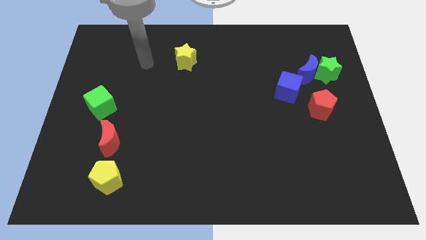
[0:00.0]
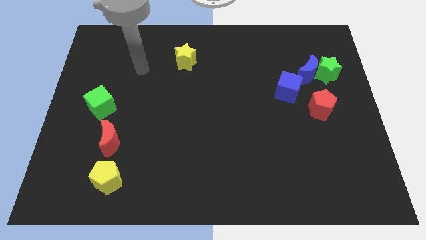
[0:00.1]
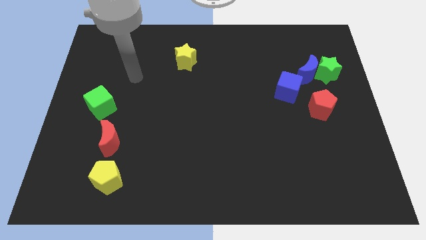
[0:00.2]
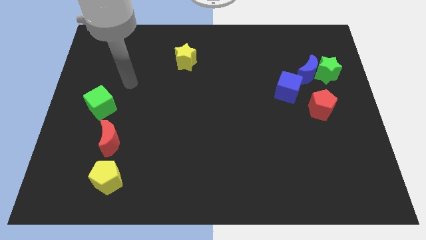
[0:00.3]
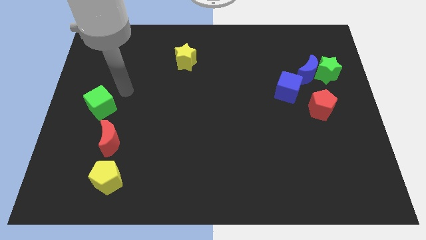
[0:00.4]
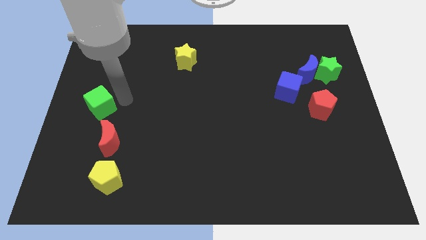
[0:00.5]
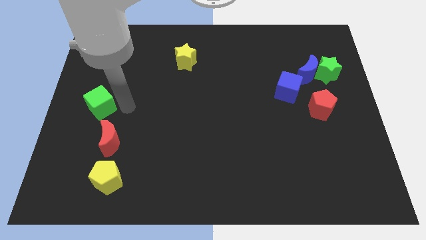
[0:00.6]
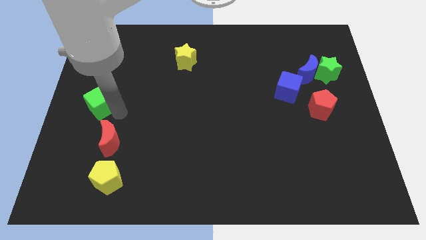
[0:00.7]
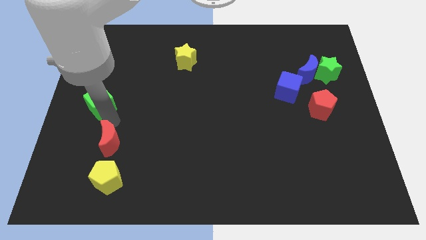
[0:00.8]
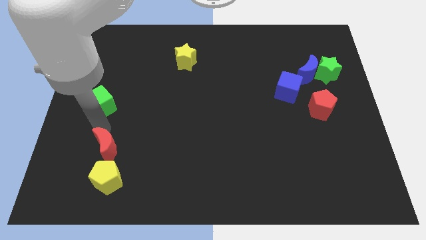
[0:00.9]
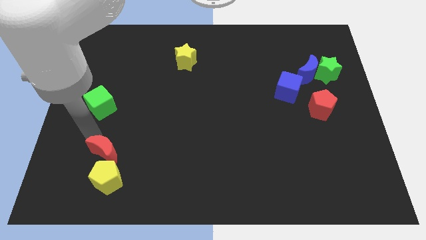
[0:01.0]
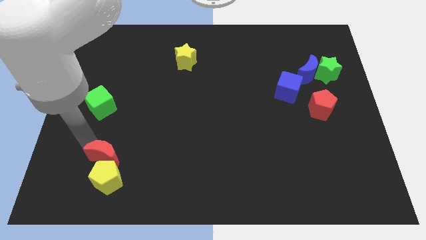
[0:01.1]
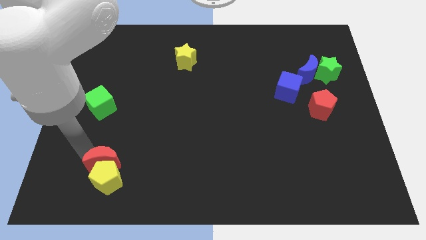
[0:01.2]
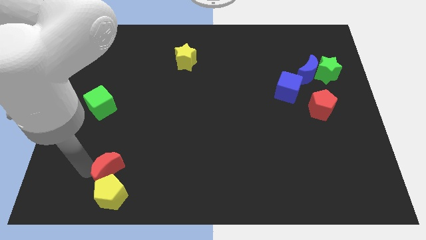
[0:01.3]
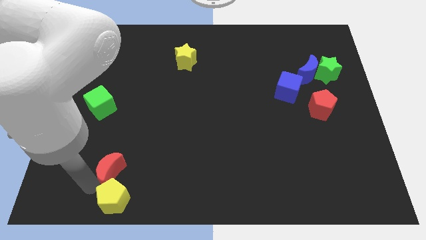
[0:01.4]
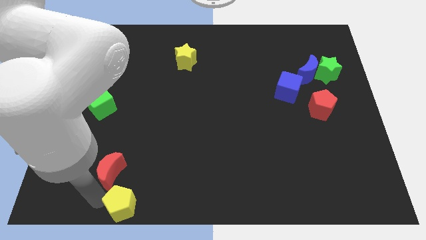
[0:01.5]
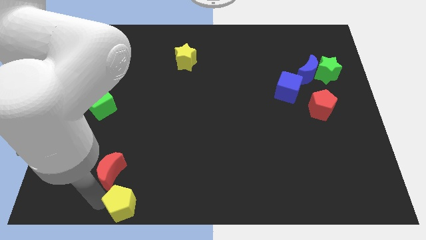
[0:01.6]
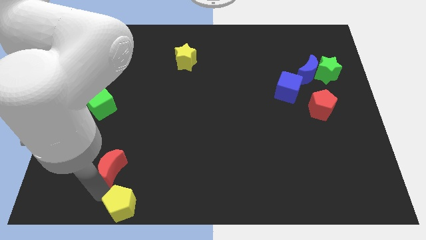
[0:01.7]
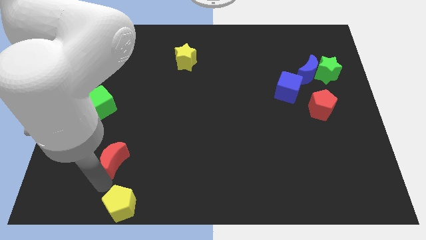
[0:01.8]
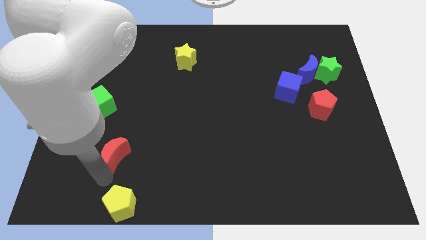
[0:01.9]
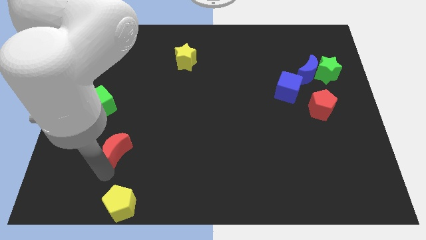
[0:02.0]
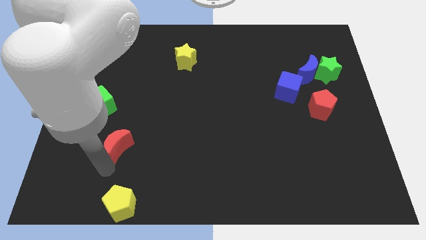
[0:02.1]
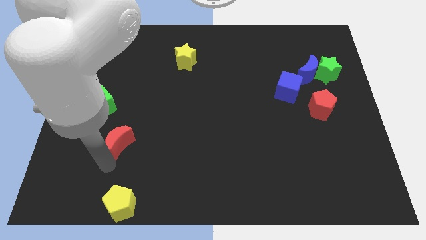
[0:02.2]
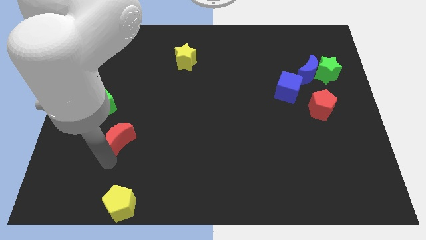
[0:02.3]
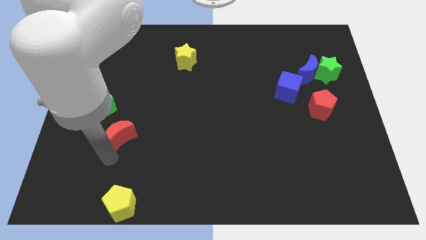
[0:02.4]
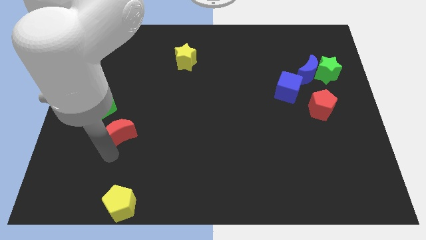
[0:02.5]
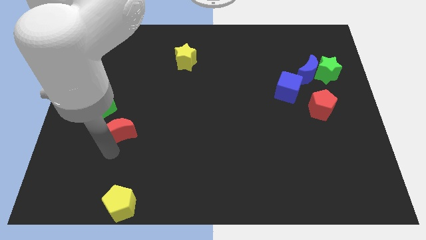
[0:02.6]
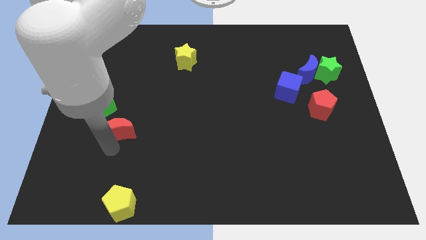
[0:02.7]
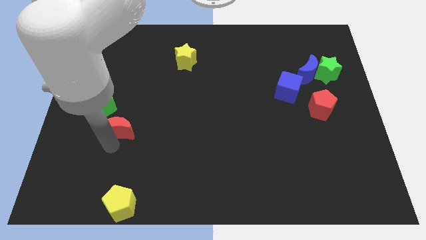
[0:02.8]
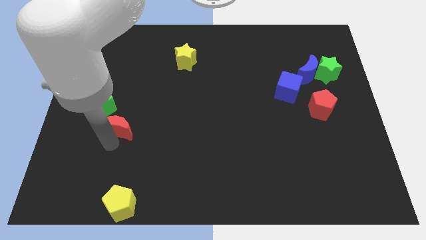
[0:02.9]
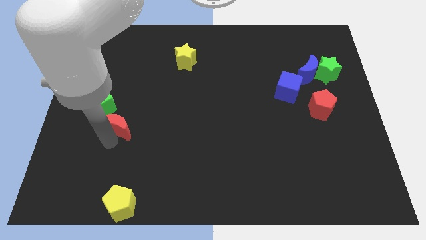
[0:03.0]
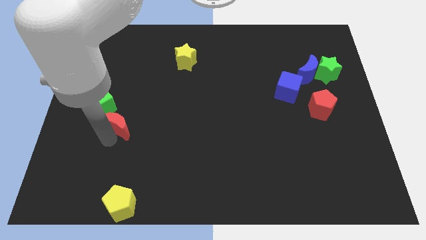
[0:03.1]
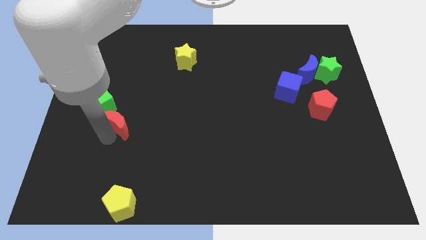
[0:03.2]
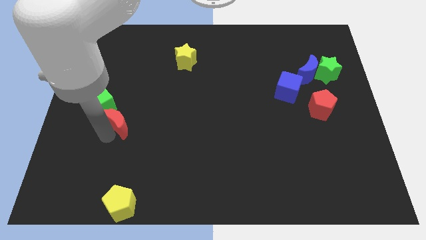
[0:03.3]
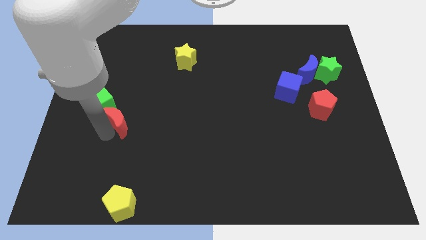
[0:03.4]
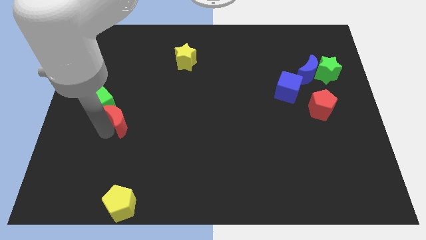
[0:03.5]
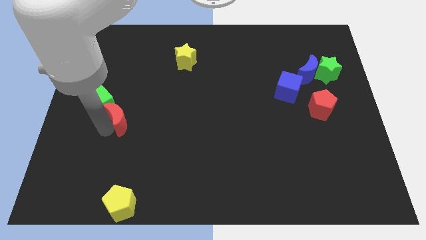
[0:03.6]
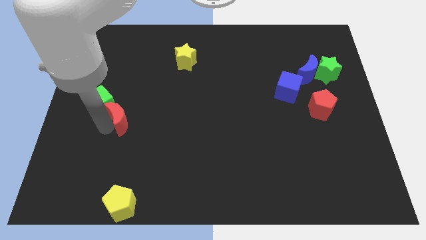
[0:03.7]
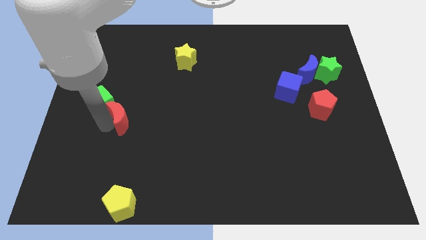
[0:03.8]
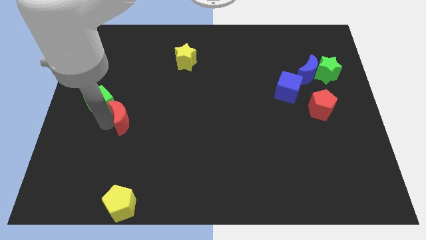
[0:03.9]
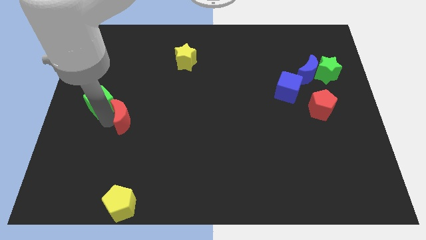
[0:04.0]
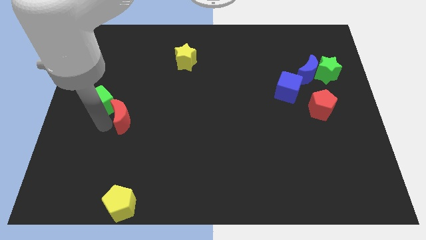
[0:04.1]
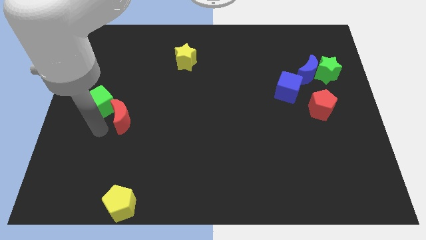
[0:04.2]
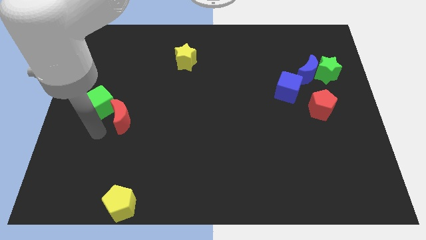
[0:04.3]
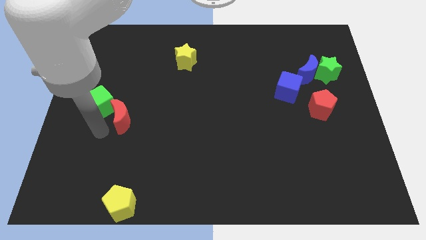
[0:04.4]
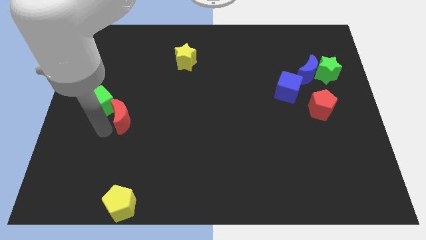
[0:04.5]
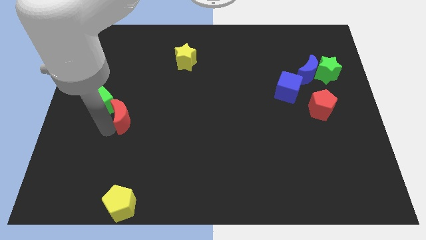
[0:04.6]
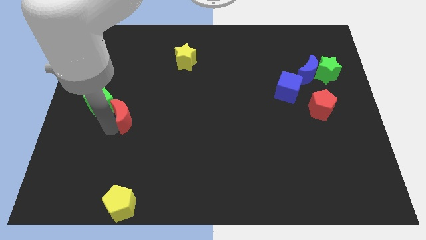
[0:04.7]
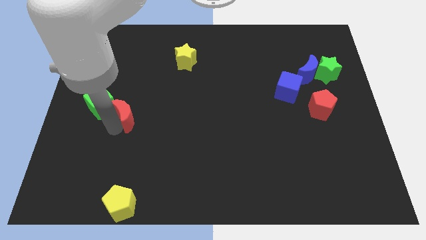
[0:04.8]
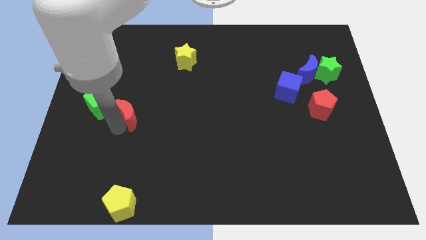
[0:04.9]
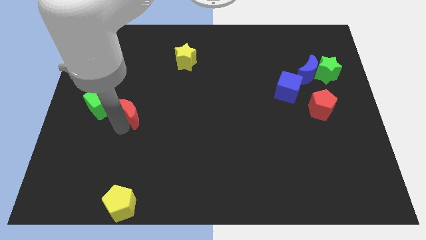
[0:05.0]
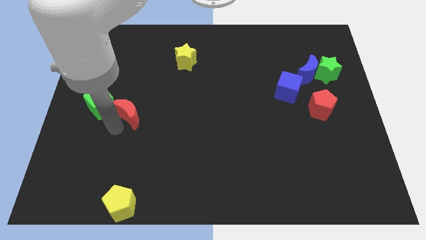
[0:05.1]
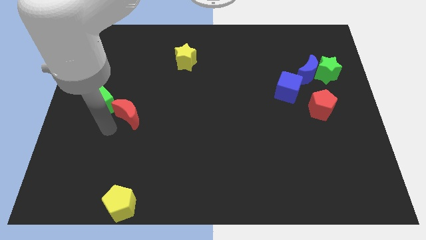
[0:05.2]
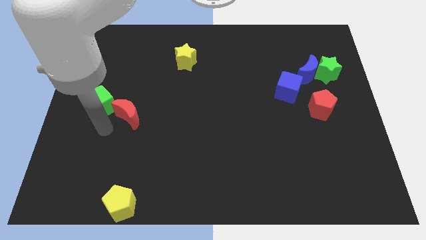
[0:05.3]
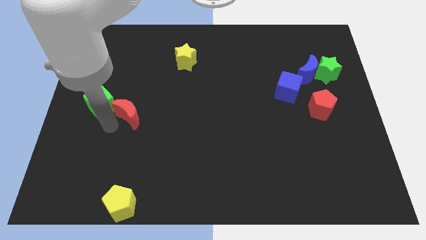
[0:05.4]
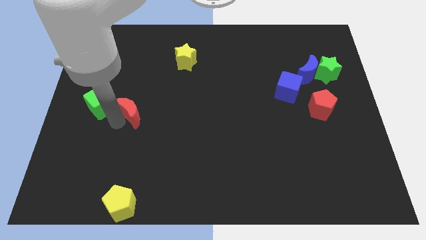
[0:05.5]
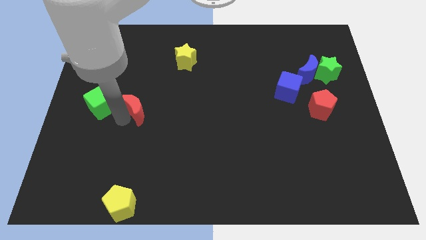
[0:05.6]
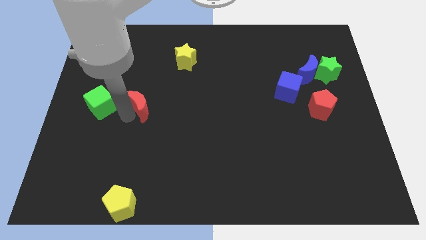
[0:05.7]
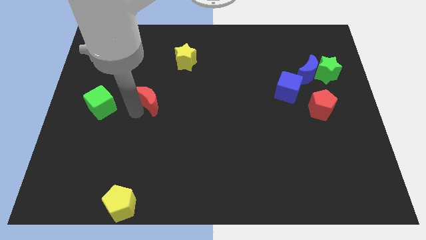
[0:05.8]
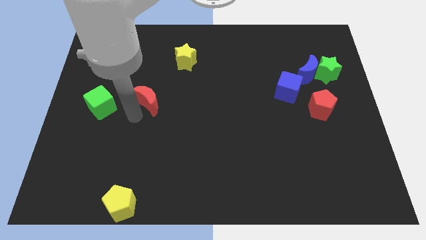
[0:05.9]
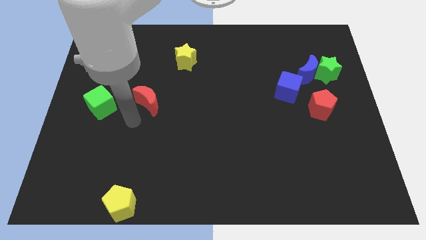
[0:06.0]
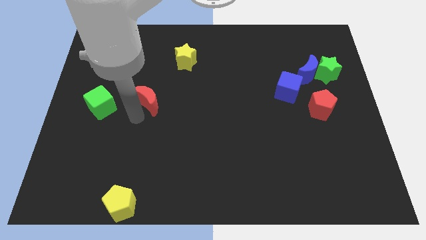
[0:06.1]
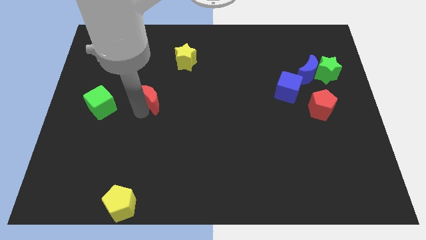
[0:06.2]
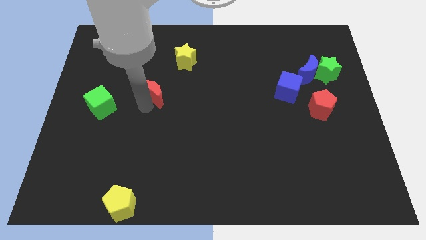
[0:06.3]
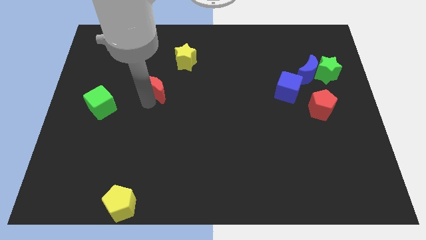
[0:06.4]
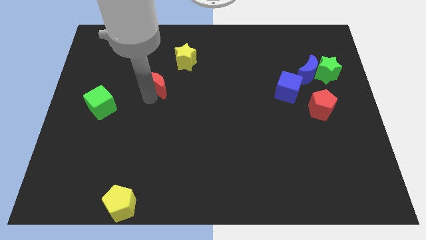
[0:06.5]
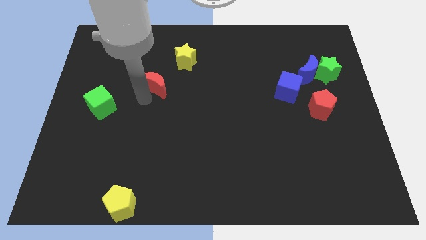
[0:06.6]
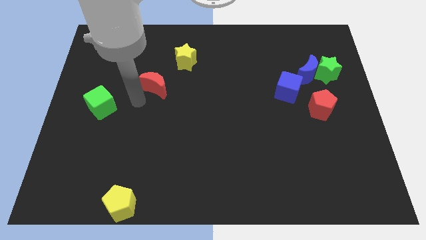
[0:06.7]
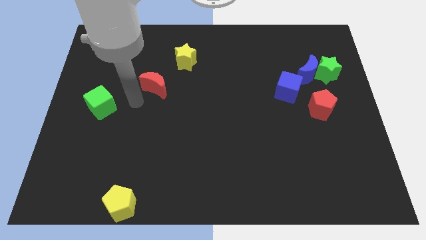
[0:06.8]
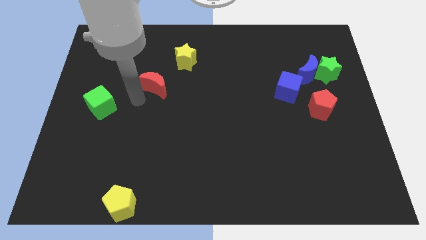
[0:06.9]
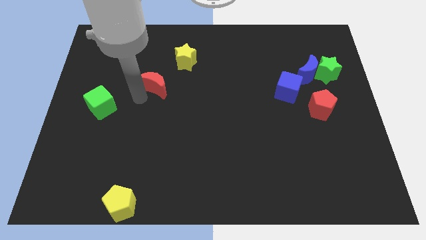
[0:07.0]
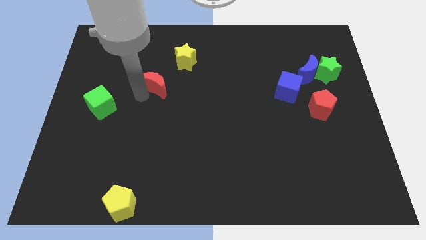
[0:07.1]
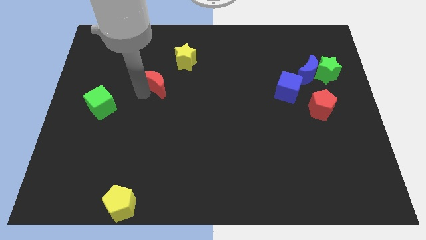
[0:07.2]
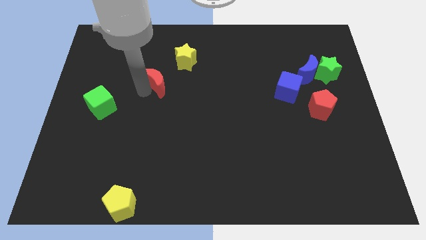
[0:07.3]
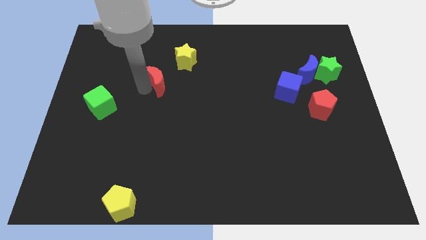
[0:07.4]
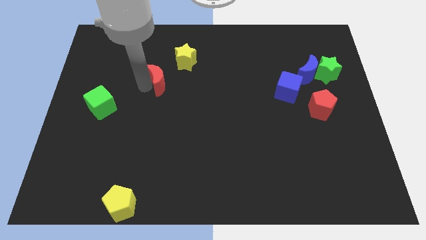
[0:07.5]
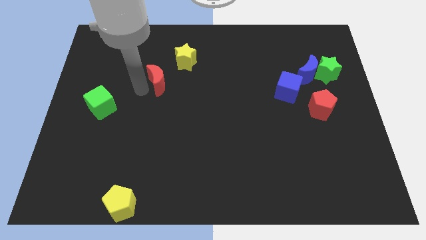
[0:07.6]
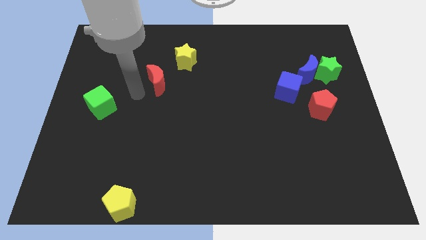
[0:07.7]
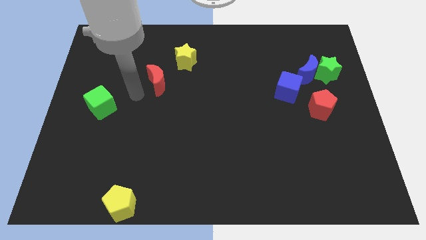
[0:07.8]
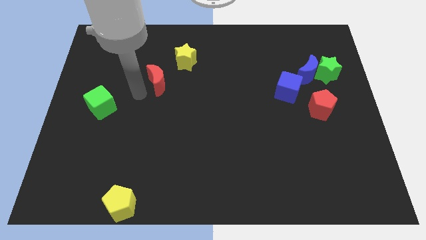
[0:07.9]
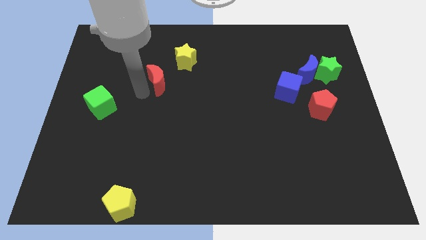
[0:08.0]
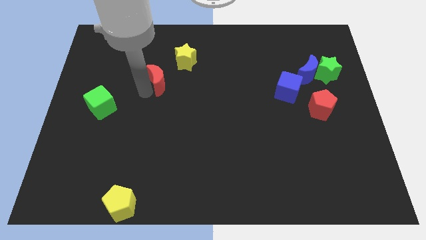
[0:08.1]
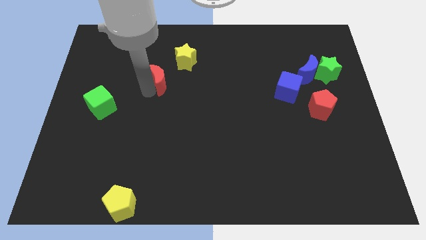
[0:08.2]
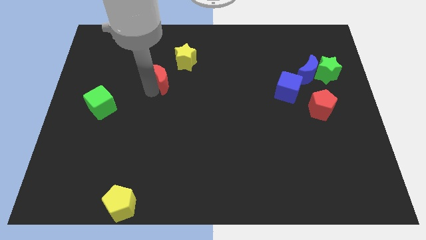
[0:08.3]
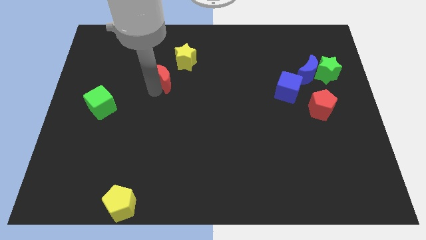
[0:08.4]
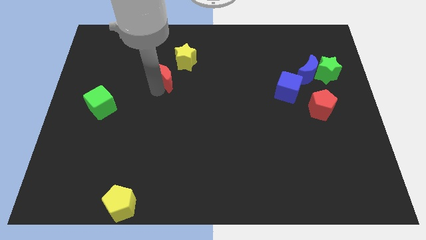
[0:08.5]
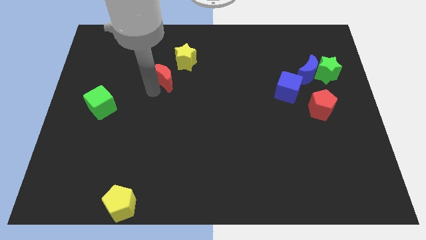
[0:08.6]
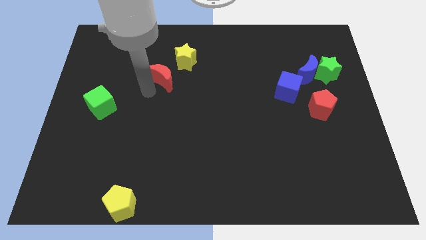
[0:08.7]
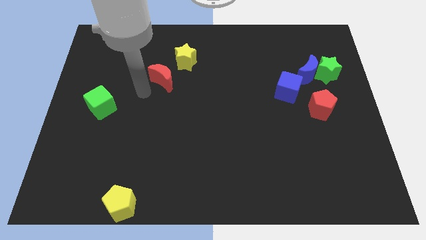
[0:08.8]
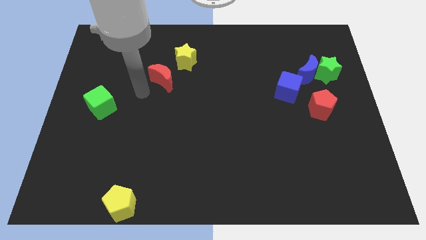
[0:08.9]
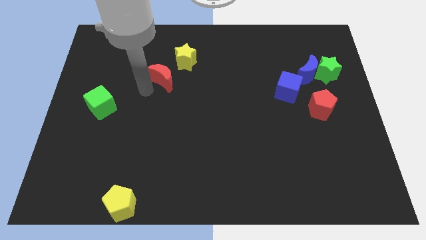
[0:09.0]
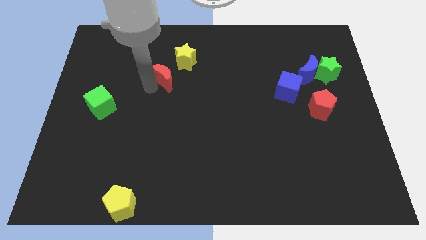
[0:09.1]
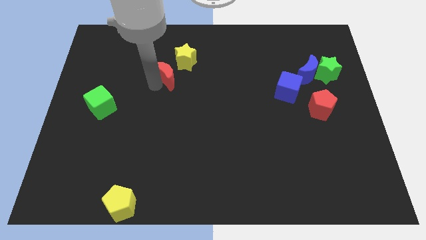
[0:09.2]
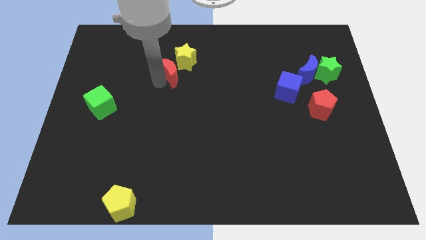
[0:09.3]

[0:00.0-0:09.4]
move the red moon towards the yellow star
